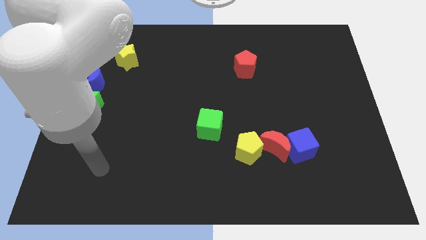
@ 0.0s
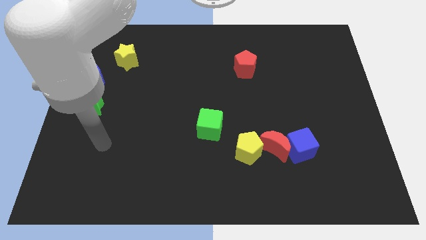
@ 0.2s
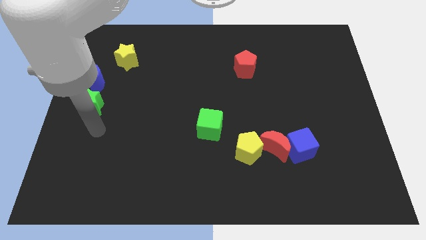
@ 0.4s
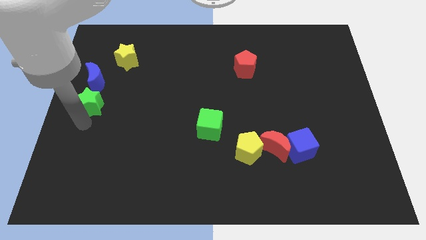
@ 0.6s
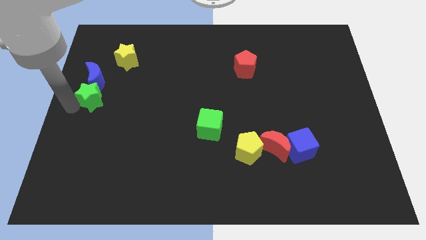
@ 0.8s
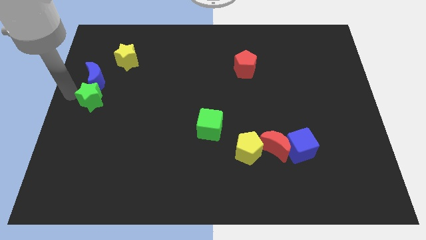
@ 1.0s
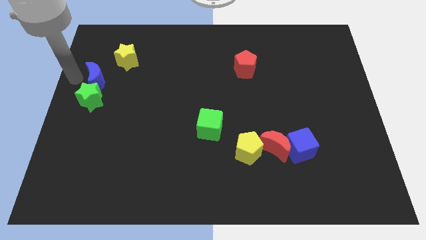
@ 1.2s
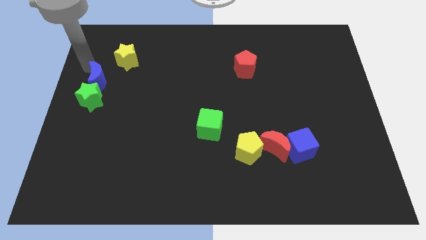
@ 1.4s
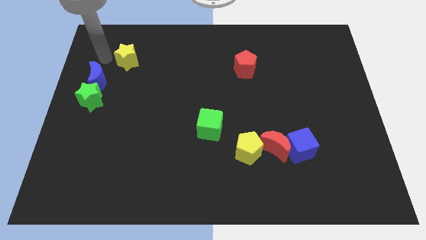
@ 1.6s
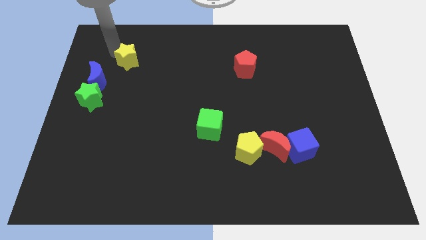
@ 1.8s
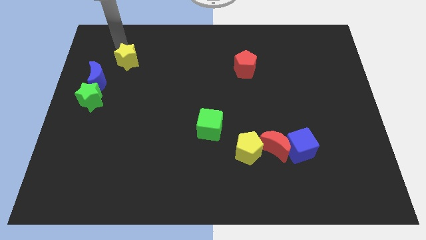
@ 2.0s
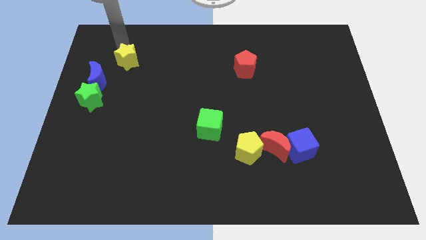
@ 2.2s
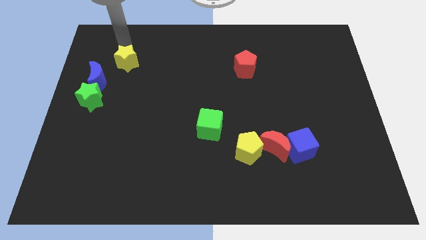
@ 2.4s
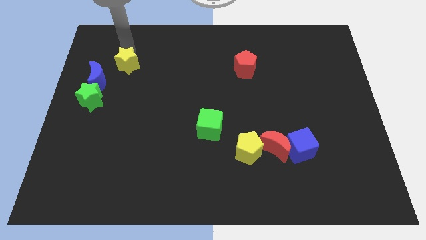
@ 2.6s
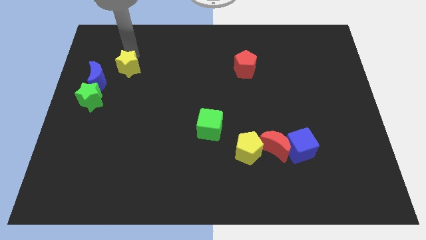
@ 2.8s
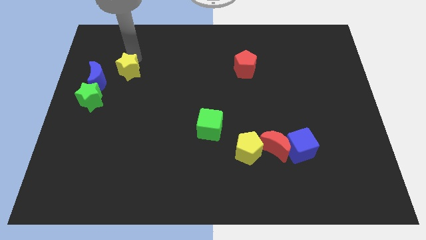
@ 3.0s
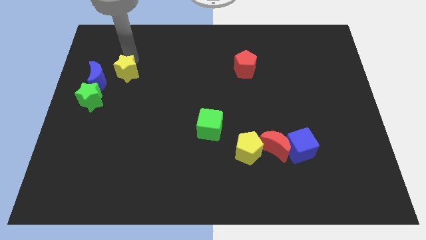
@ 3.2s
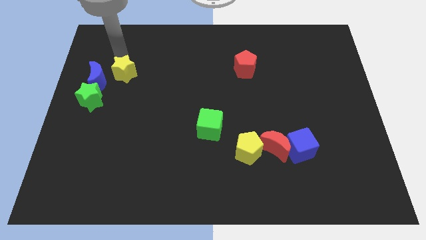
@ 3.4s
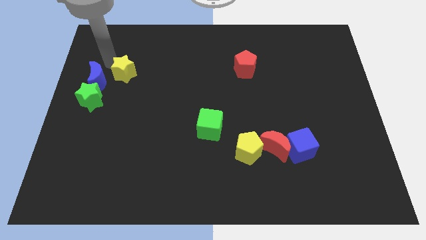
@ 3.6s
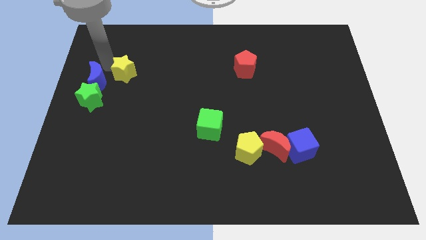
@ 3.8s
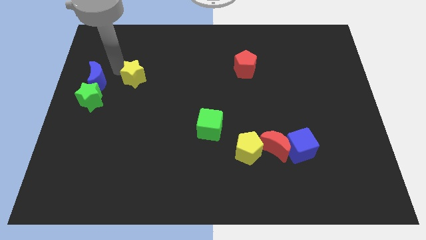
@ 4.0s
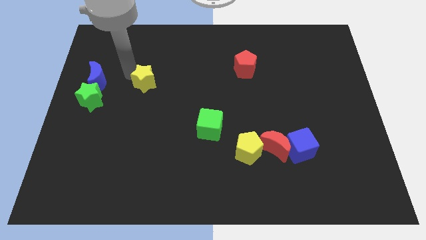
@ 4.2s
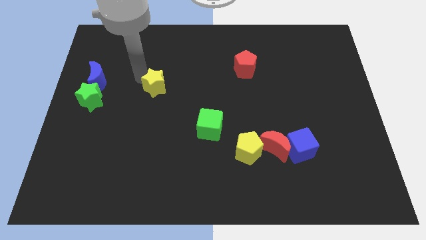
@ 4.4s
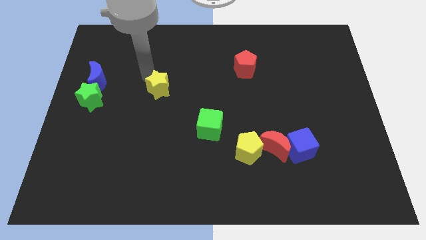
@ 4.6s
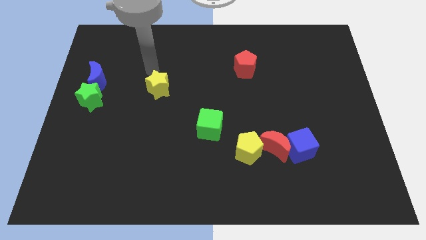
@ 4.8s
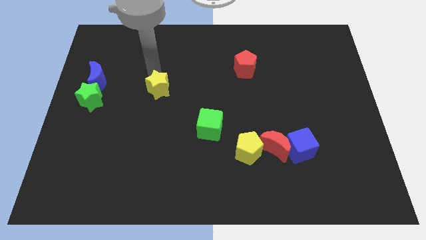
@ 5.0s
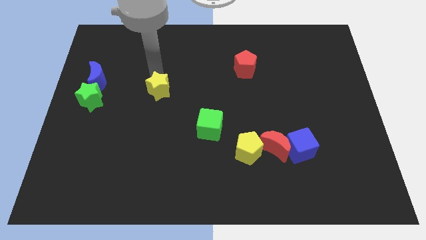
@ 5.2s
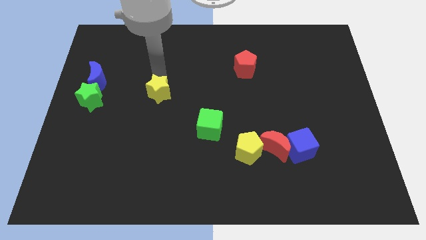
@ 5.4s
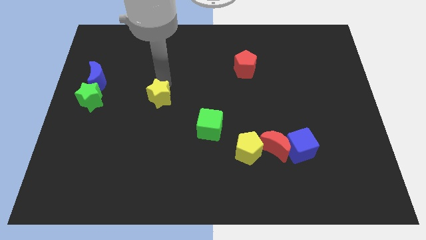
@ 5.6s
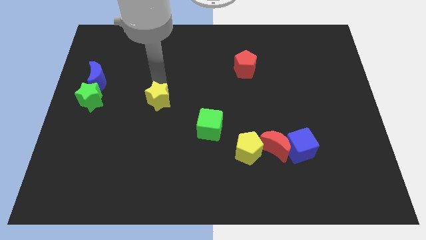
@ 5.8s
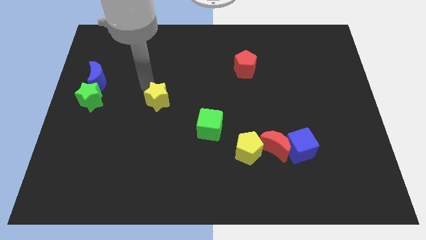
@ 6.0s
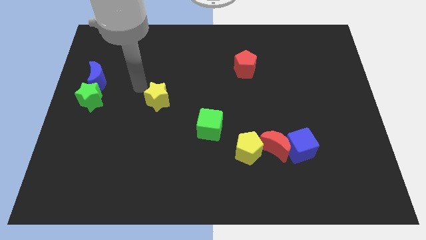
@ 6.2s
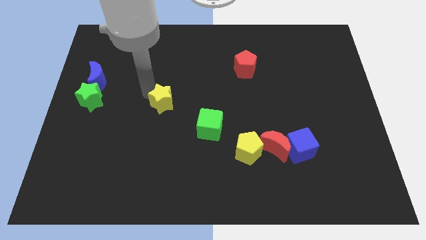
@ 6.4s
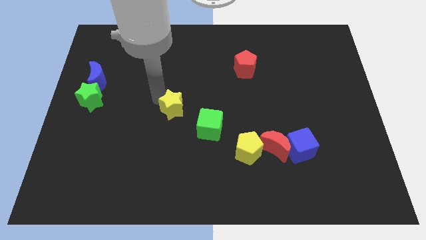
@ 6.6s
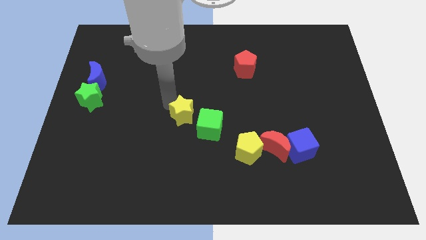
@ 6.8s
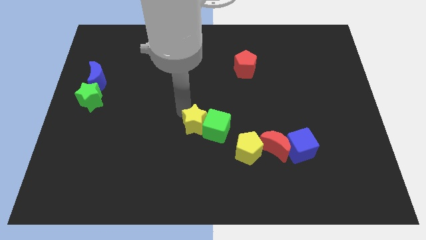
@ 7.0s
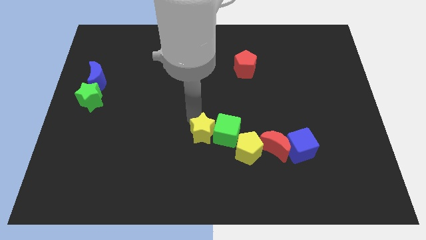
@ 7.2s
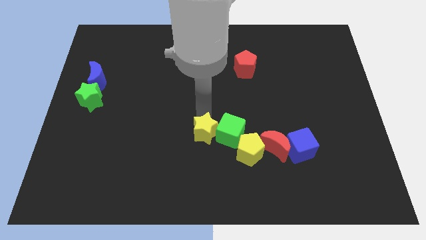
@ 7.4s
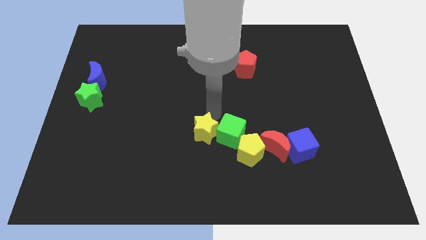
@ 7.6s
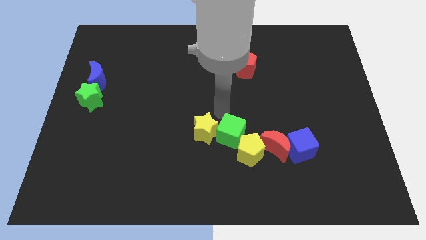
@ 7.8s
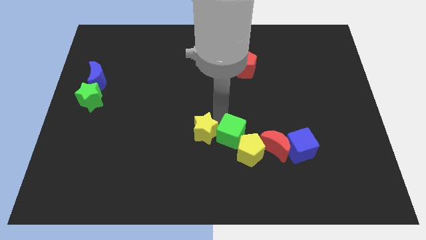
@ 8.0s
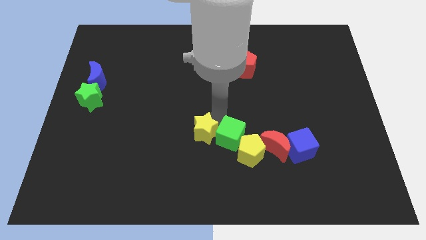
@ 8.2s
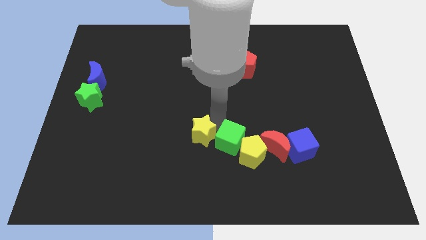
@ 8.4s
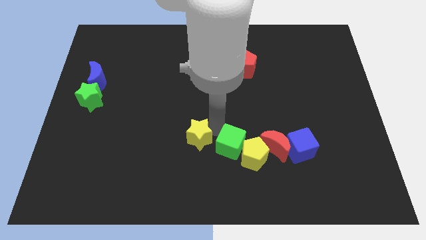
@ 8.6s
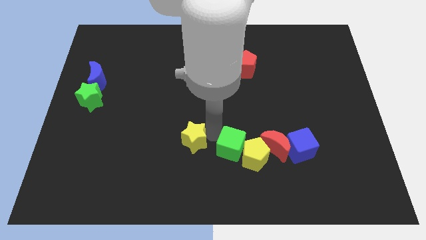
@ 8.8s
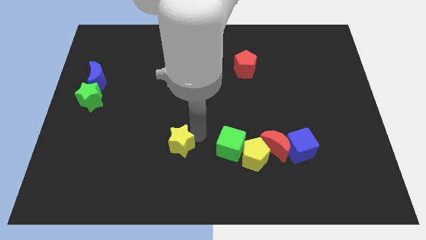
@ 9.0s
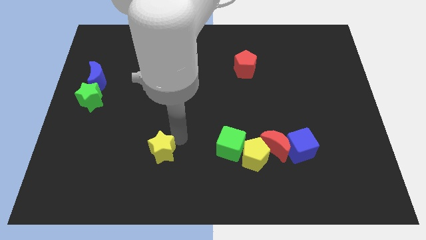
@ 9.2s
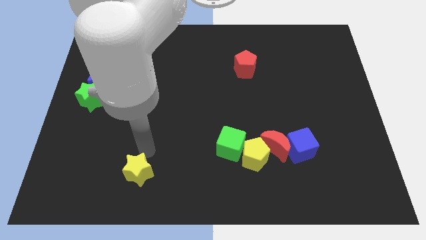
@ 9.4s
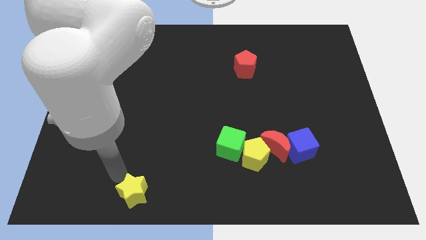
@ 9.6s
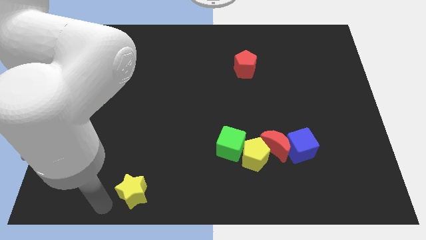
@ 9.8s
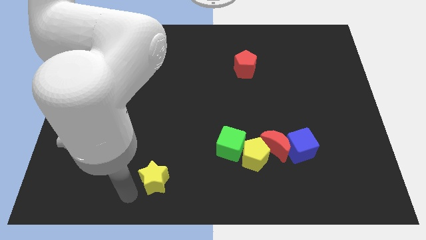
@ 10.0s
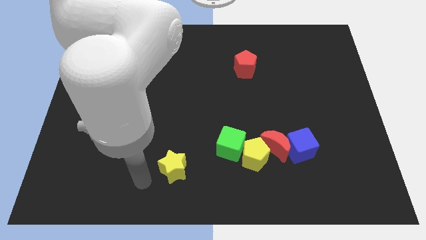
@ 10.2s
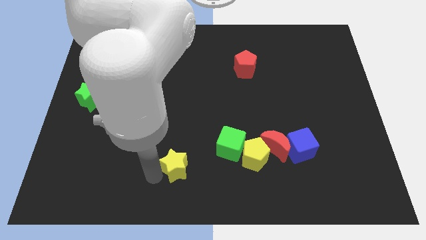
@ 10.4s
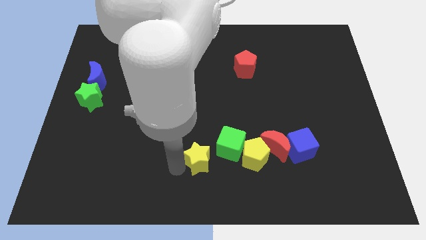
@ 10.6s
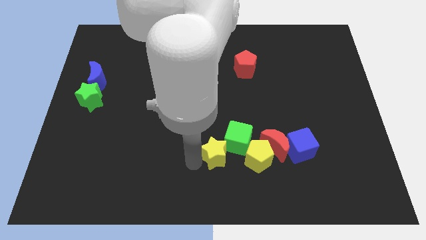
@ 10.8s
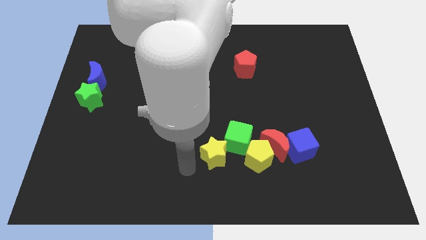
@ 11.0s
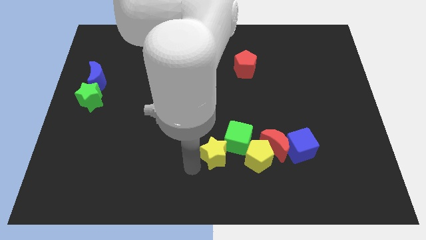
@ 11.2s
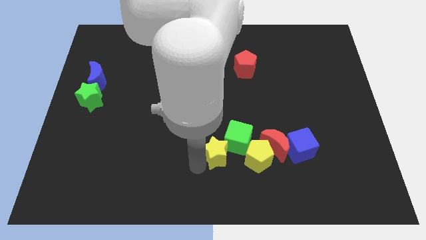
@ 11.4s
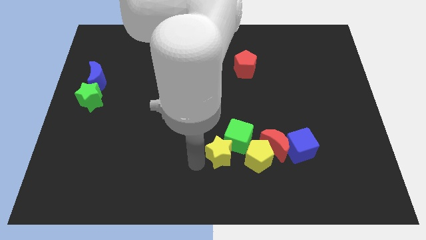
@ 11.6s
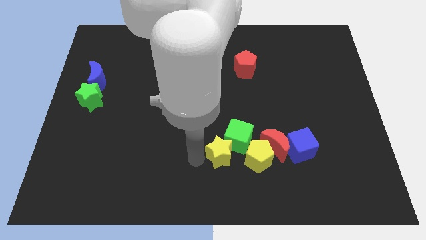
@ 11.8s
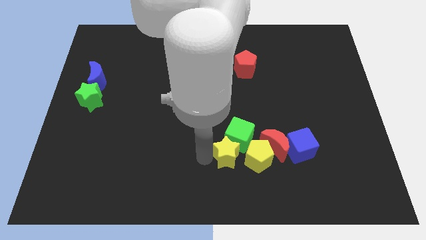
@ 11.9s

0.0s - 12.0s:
slide the yellow star just left of the blue cube

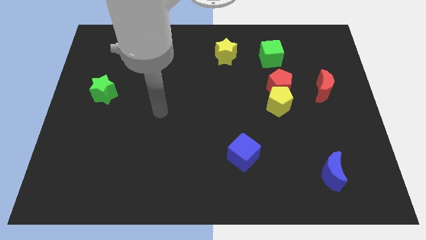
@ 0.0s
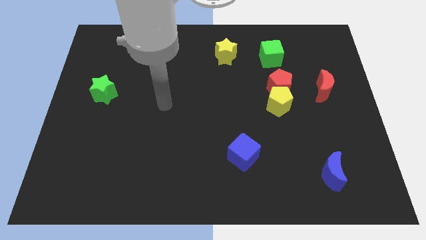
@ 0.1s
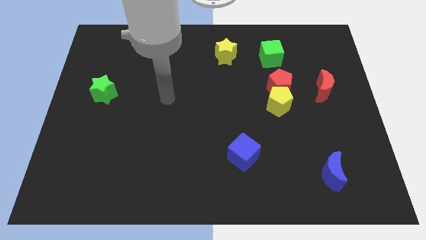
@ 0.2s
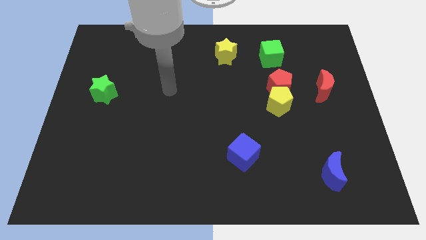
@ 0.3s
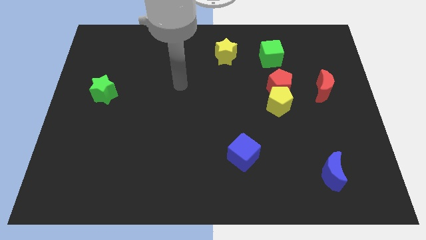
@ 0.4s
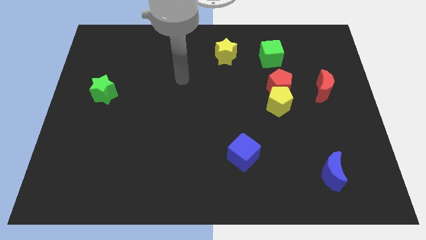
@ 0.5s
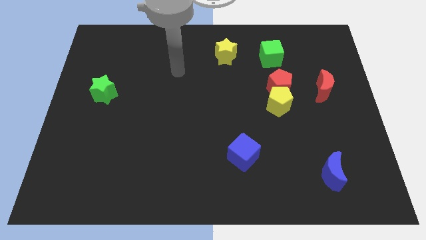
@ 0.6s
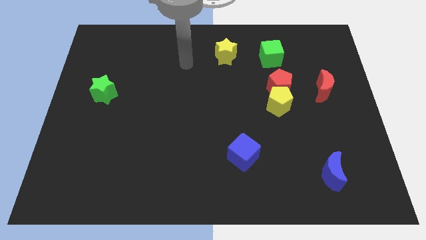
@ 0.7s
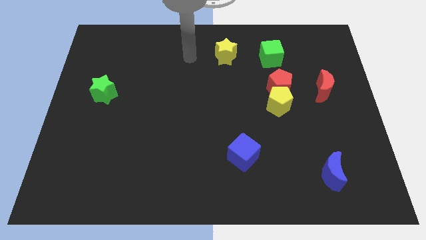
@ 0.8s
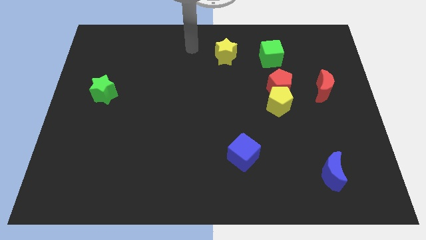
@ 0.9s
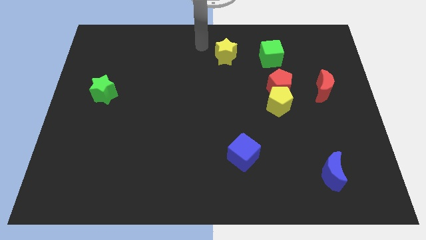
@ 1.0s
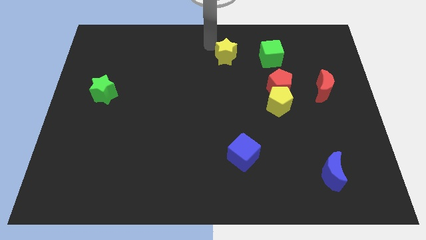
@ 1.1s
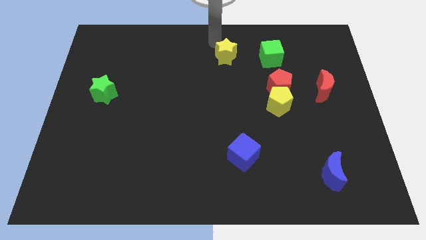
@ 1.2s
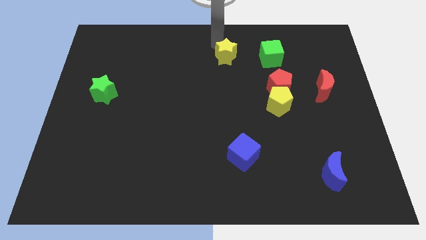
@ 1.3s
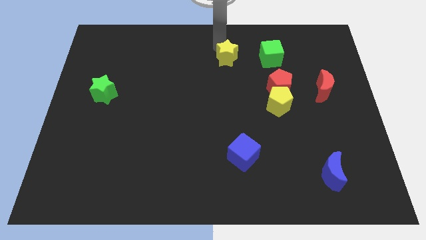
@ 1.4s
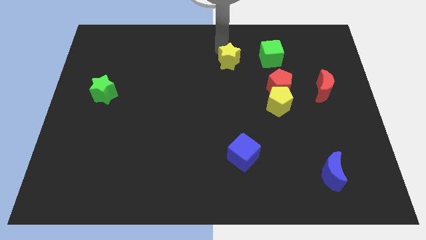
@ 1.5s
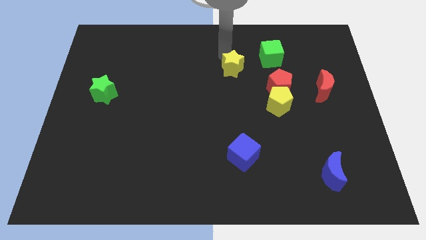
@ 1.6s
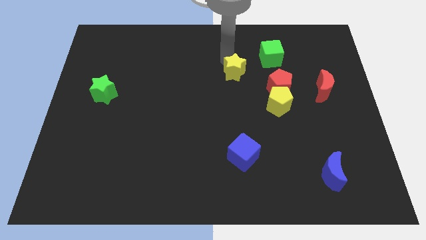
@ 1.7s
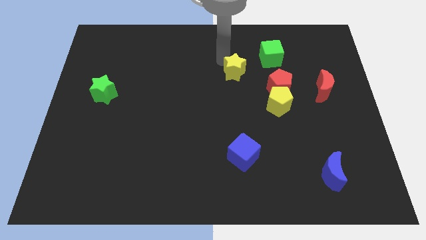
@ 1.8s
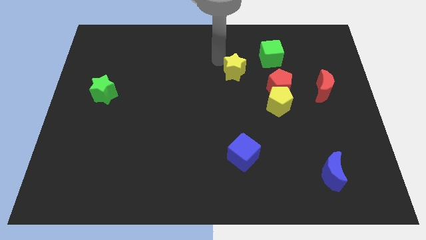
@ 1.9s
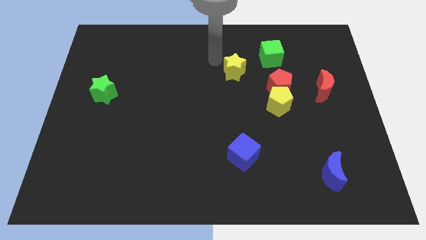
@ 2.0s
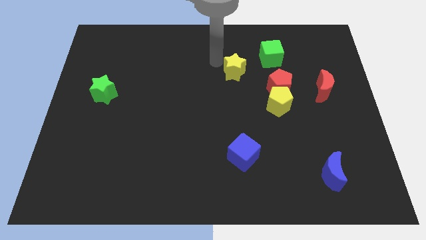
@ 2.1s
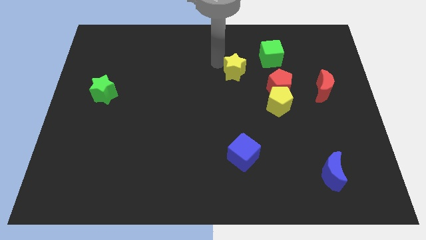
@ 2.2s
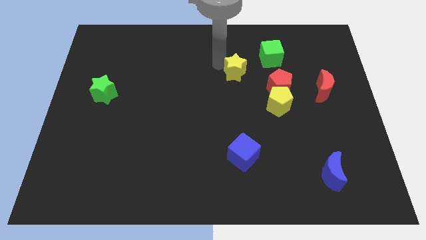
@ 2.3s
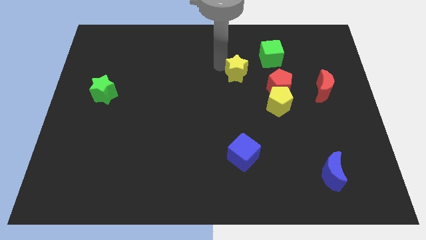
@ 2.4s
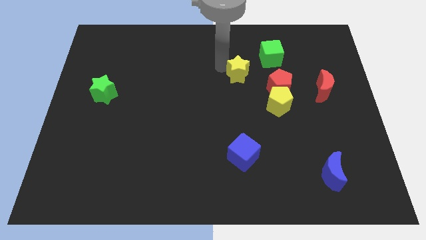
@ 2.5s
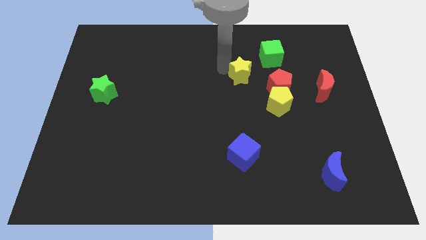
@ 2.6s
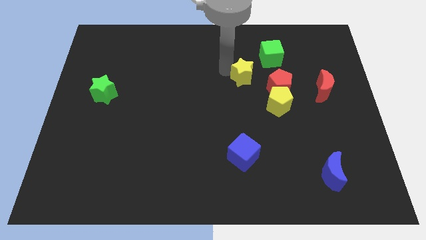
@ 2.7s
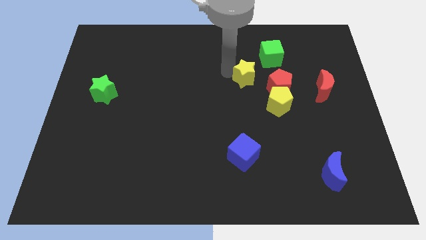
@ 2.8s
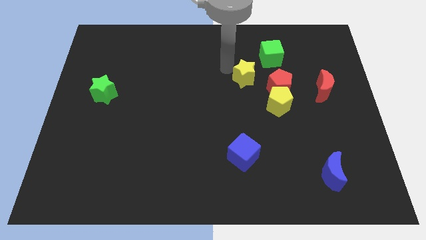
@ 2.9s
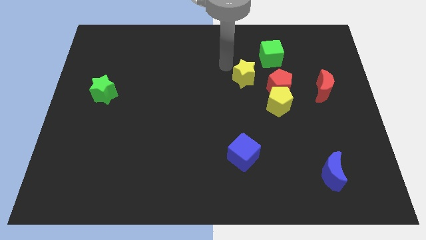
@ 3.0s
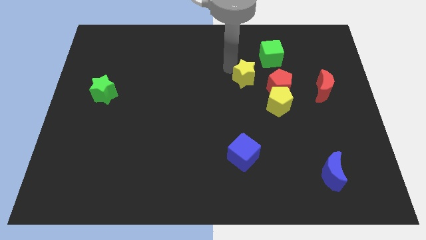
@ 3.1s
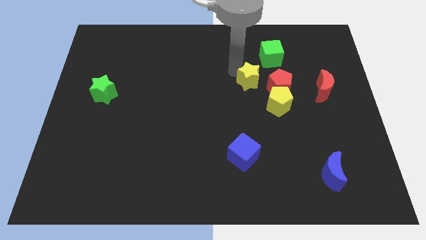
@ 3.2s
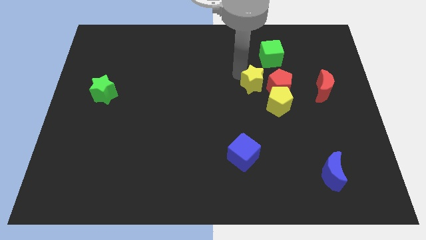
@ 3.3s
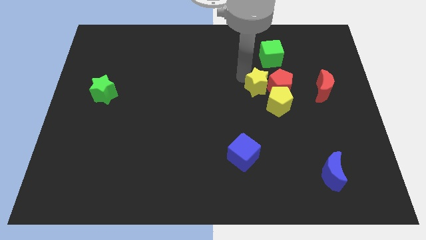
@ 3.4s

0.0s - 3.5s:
put the yellow star left of the red moon
